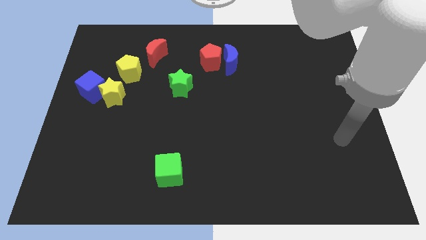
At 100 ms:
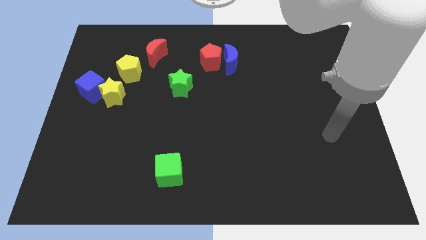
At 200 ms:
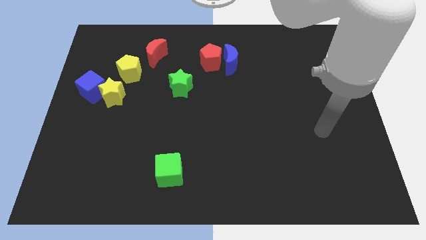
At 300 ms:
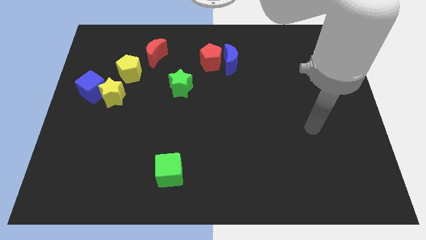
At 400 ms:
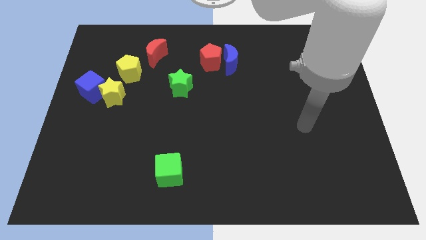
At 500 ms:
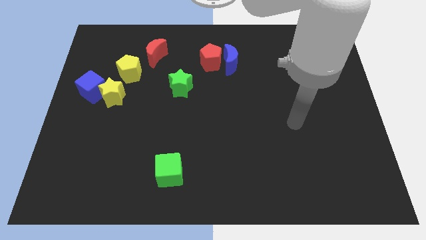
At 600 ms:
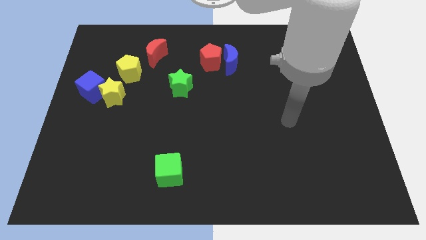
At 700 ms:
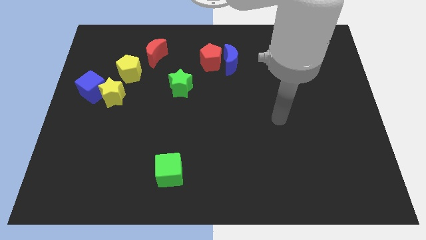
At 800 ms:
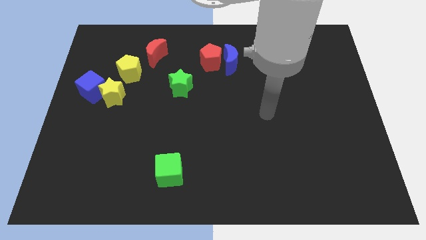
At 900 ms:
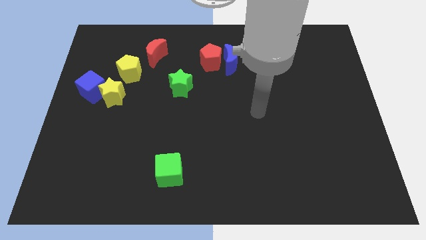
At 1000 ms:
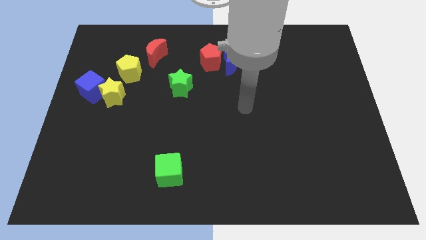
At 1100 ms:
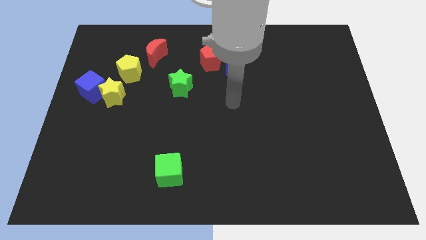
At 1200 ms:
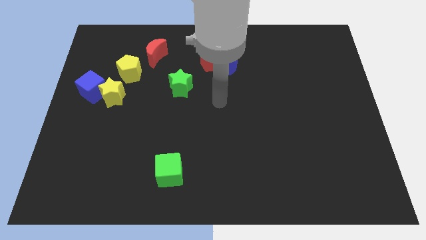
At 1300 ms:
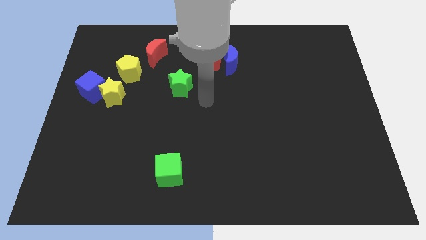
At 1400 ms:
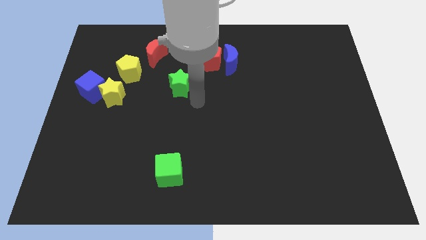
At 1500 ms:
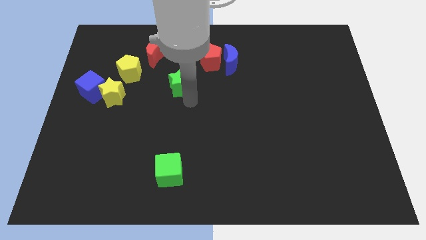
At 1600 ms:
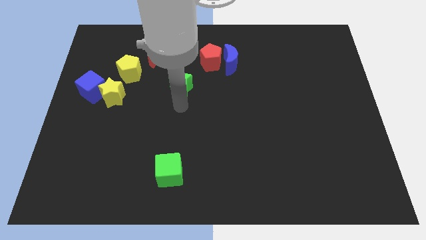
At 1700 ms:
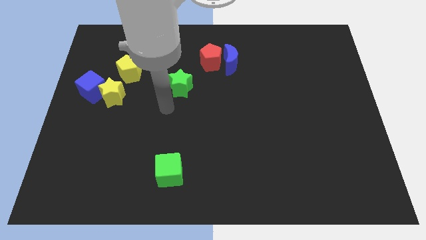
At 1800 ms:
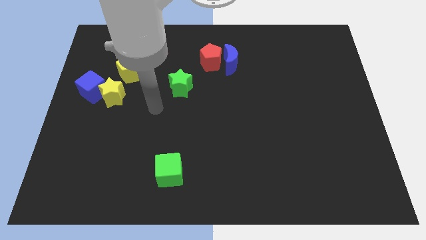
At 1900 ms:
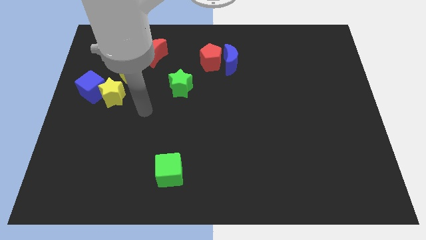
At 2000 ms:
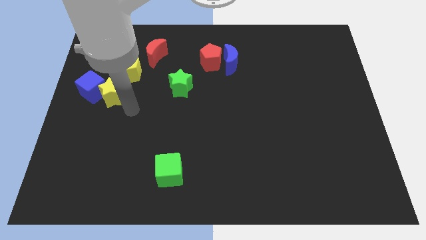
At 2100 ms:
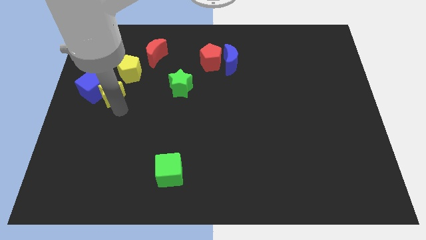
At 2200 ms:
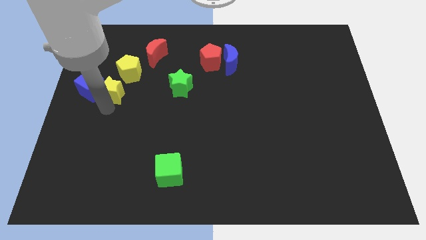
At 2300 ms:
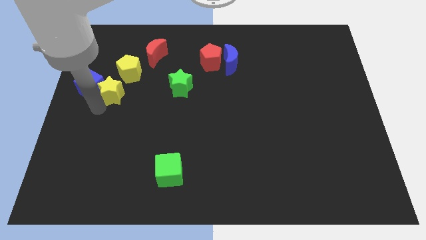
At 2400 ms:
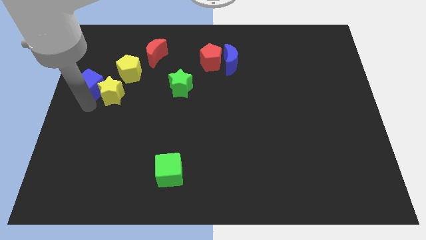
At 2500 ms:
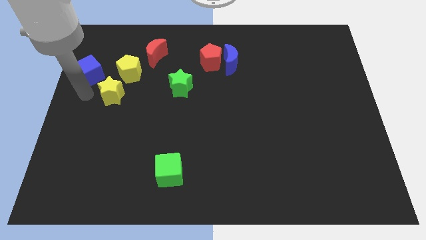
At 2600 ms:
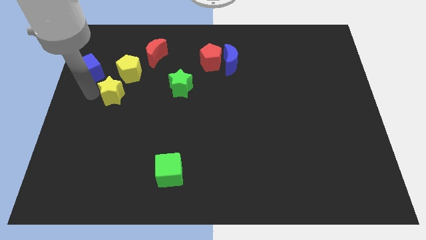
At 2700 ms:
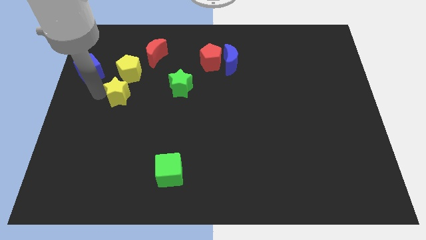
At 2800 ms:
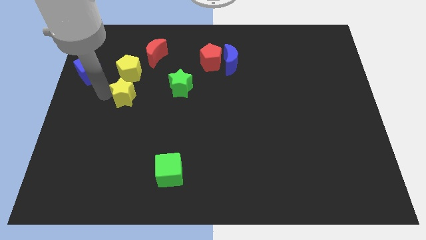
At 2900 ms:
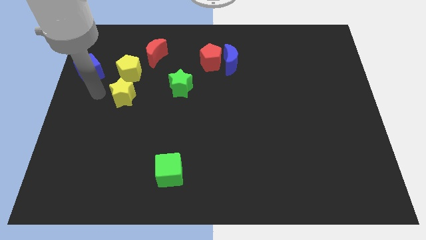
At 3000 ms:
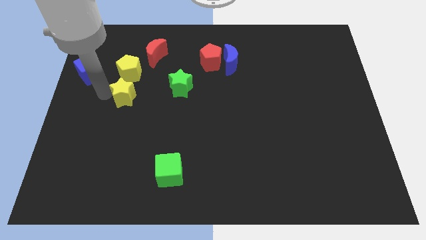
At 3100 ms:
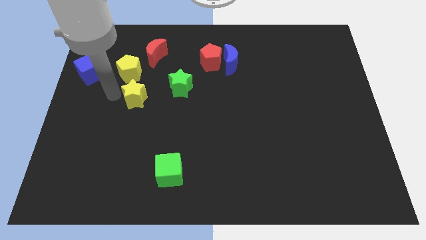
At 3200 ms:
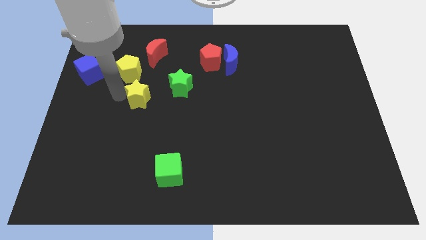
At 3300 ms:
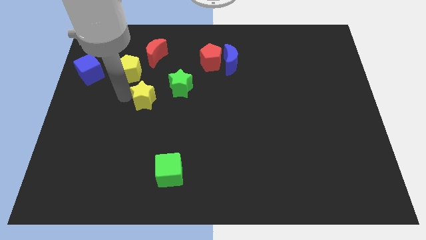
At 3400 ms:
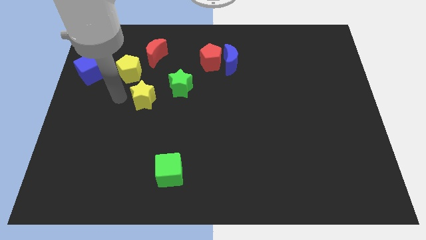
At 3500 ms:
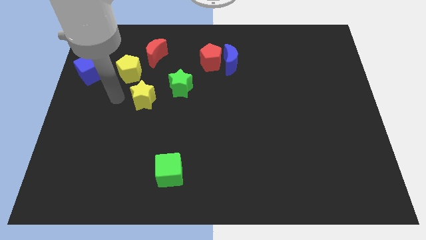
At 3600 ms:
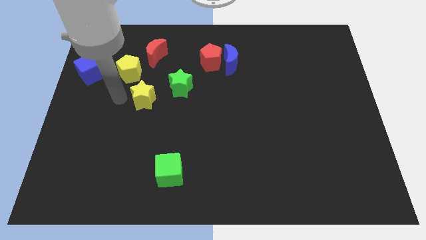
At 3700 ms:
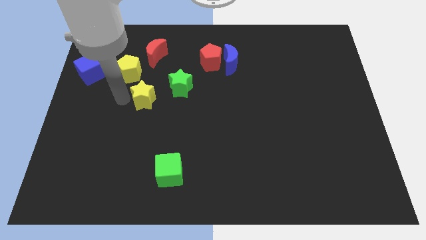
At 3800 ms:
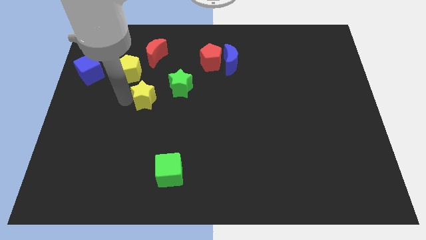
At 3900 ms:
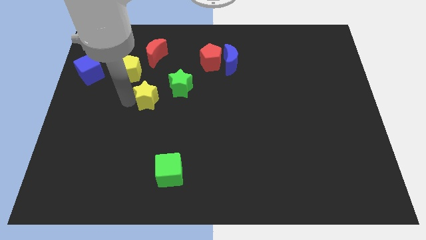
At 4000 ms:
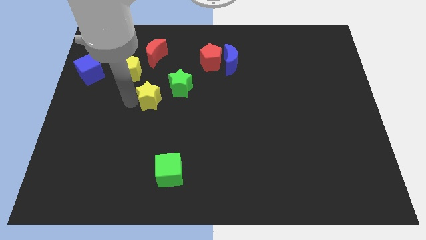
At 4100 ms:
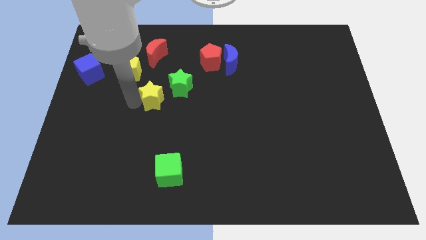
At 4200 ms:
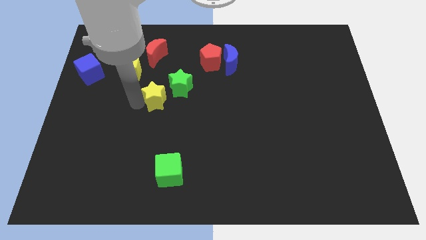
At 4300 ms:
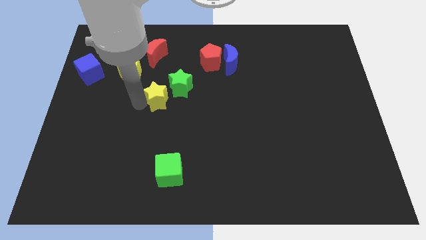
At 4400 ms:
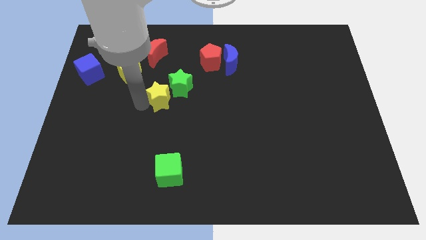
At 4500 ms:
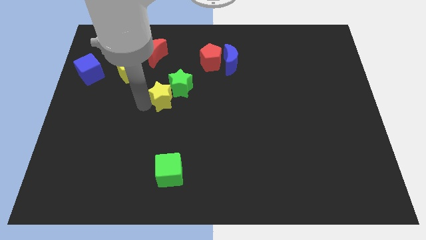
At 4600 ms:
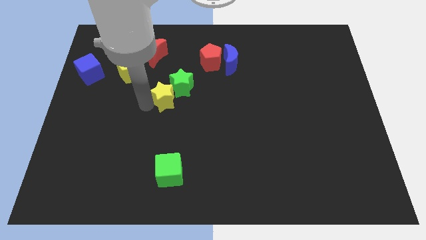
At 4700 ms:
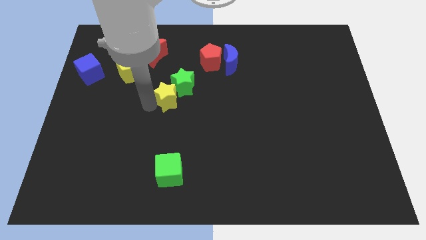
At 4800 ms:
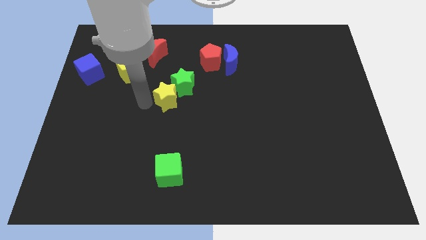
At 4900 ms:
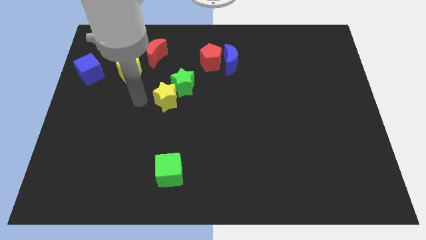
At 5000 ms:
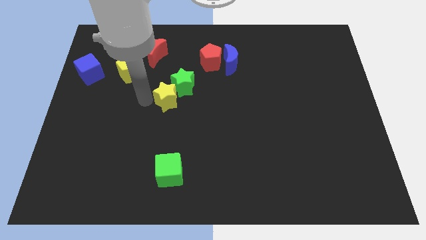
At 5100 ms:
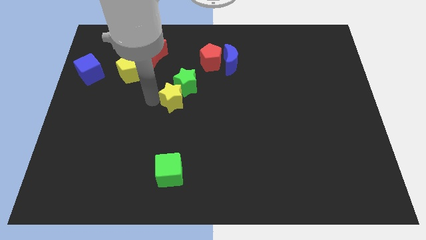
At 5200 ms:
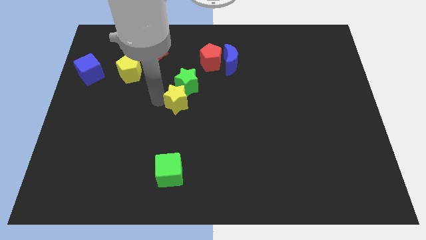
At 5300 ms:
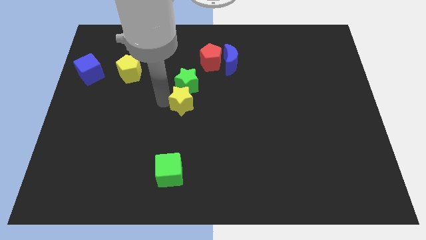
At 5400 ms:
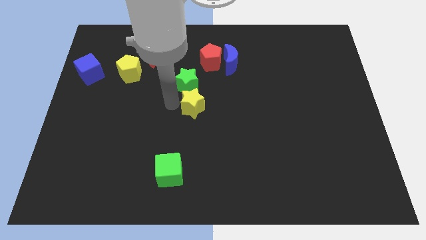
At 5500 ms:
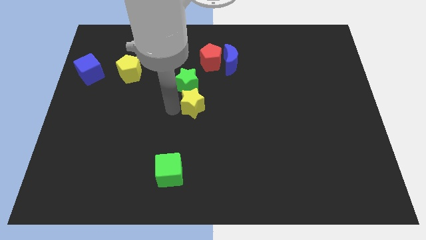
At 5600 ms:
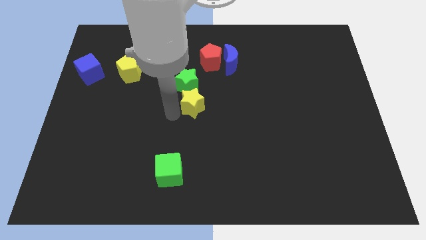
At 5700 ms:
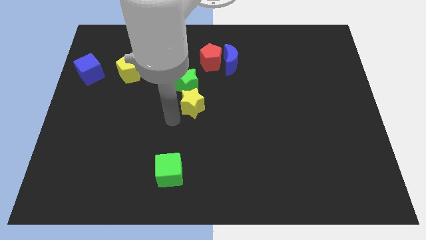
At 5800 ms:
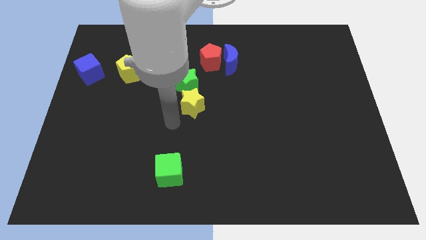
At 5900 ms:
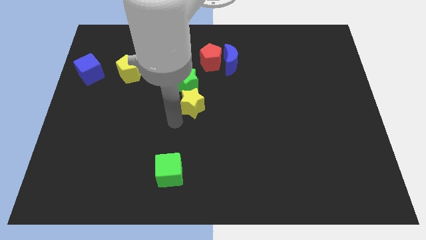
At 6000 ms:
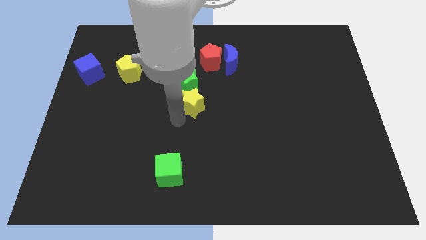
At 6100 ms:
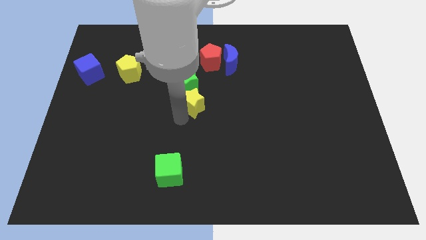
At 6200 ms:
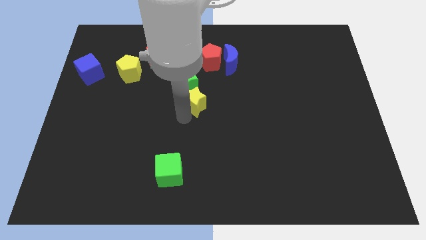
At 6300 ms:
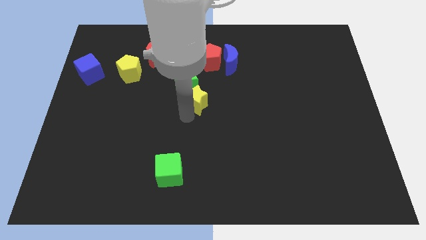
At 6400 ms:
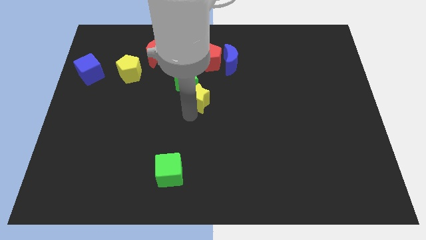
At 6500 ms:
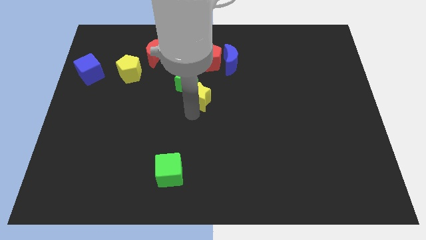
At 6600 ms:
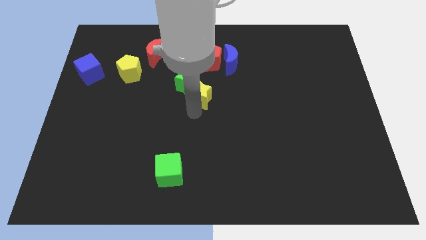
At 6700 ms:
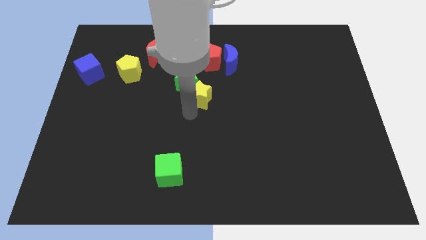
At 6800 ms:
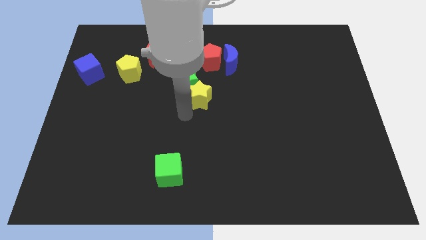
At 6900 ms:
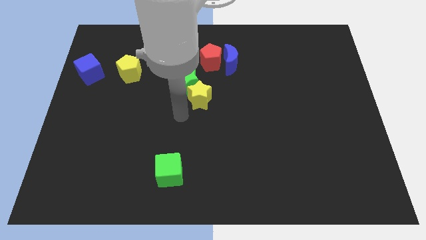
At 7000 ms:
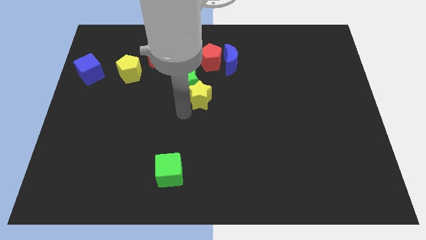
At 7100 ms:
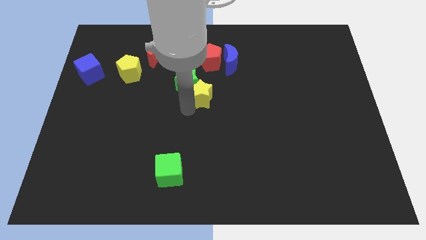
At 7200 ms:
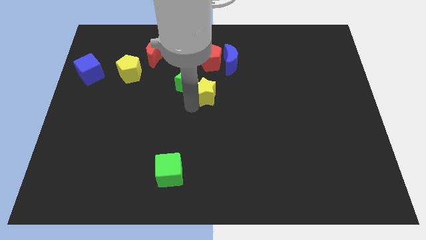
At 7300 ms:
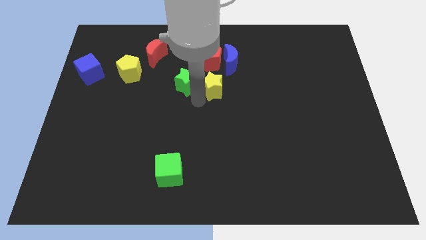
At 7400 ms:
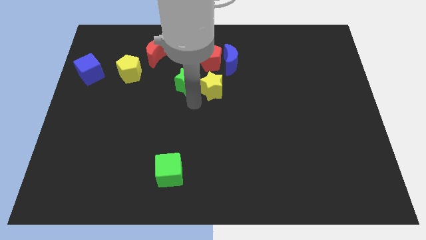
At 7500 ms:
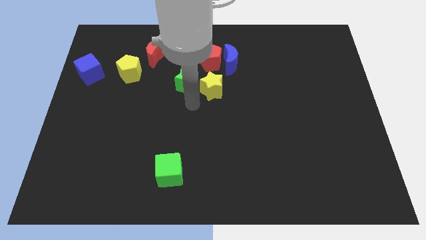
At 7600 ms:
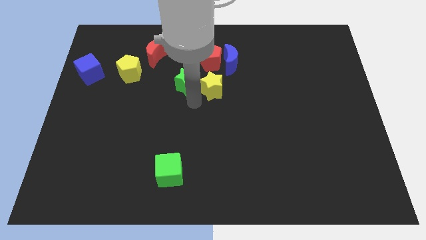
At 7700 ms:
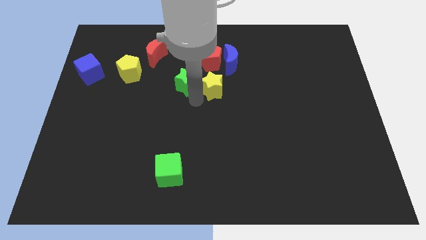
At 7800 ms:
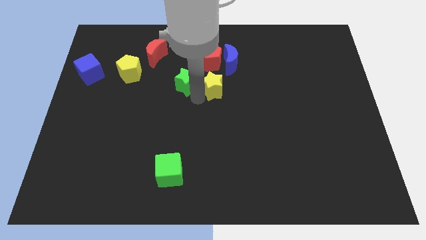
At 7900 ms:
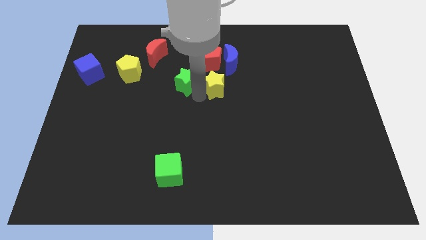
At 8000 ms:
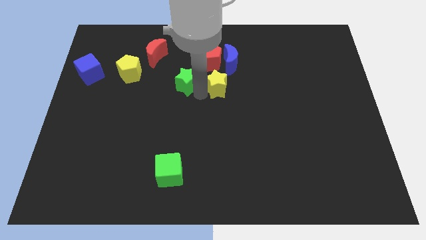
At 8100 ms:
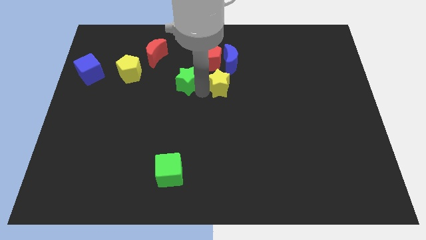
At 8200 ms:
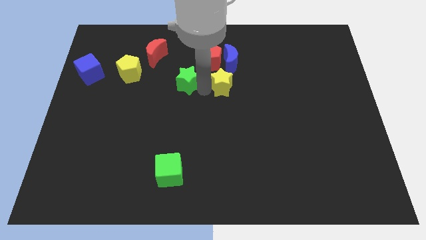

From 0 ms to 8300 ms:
push the yellow star to the bottom right of the red pentagon
